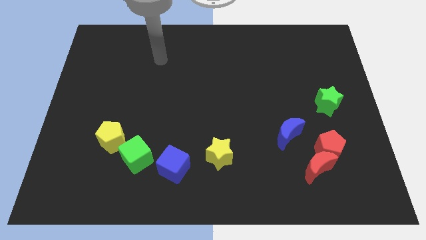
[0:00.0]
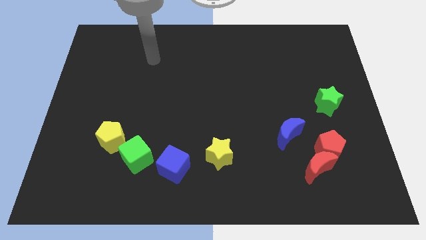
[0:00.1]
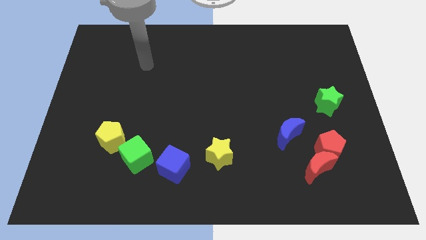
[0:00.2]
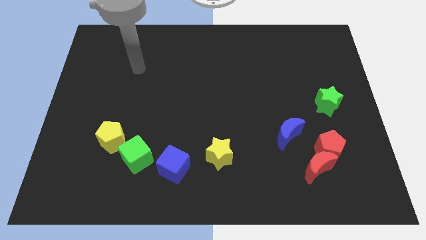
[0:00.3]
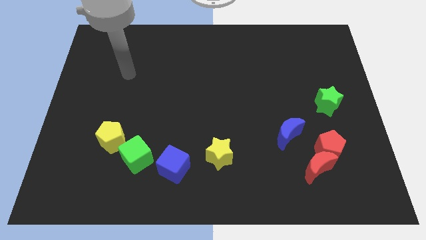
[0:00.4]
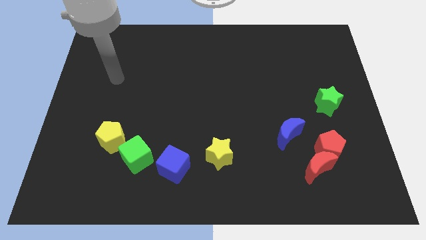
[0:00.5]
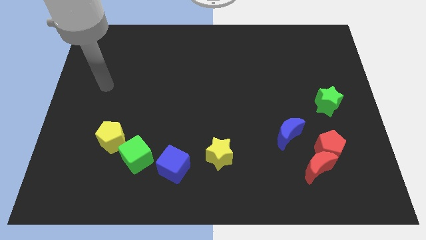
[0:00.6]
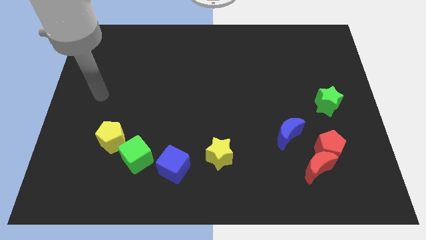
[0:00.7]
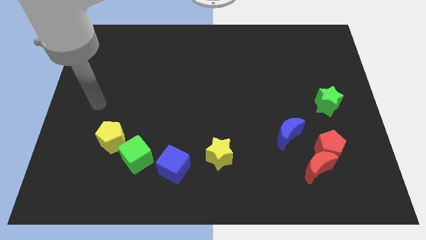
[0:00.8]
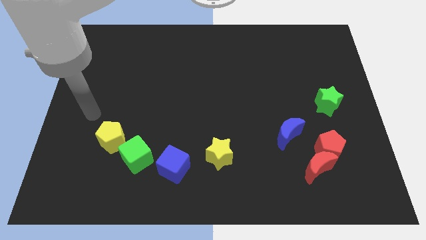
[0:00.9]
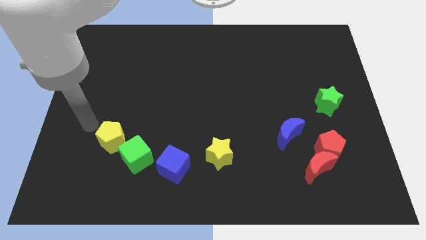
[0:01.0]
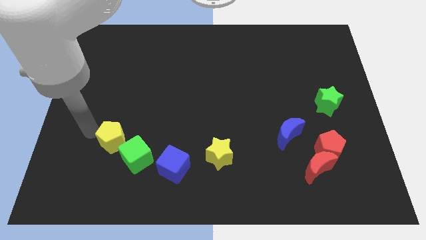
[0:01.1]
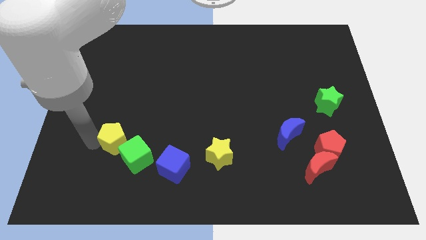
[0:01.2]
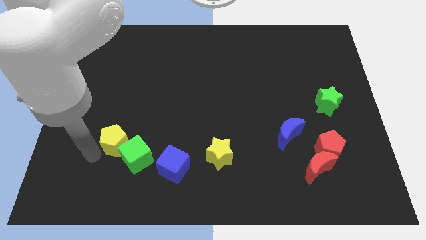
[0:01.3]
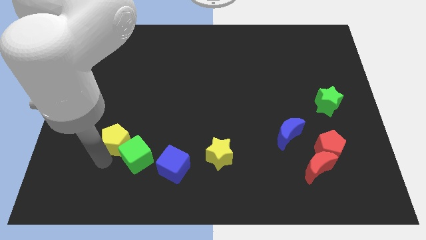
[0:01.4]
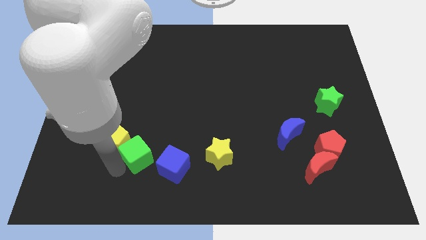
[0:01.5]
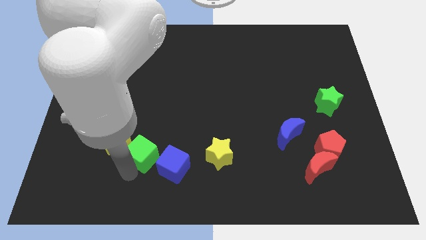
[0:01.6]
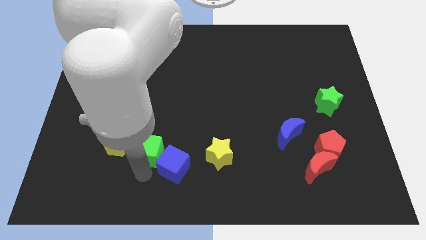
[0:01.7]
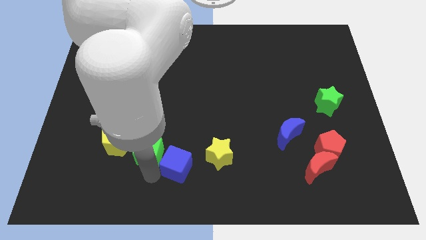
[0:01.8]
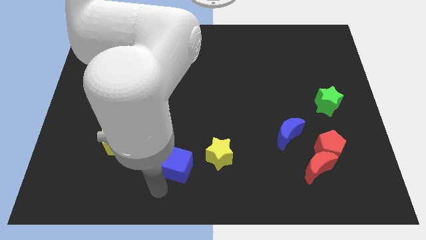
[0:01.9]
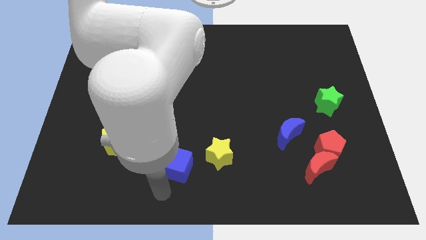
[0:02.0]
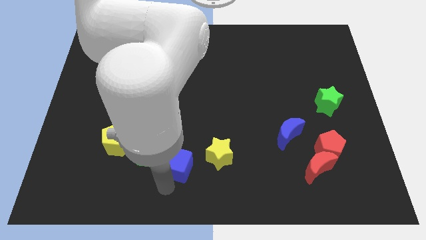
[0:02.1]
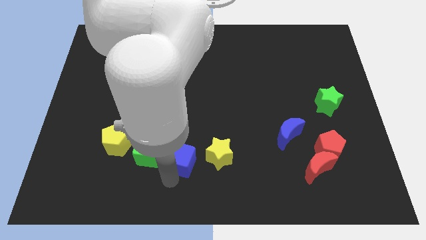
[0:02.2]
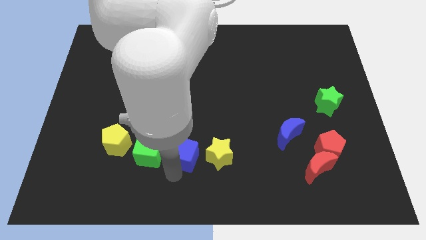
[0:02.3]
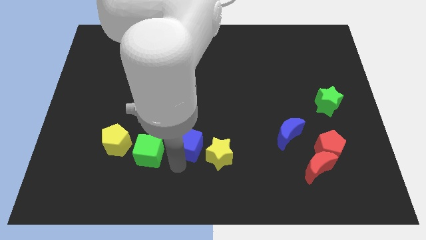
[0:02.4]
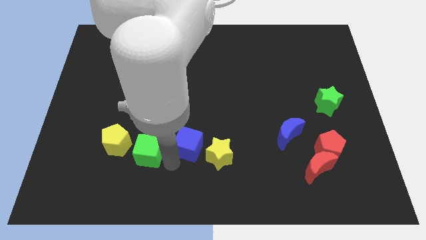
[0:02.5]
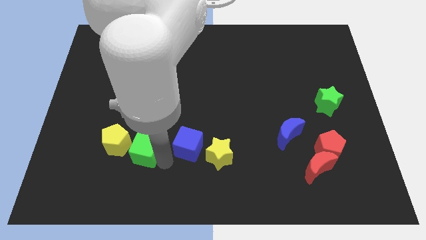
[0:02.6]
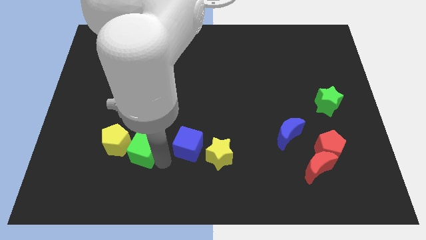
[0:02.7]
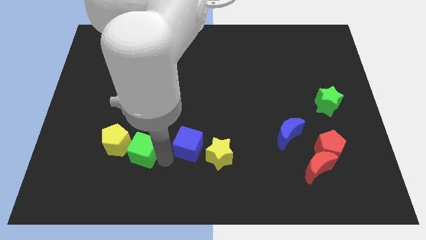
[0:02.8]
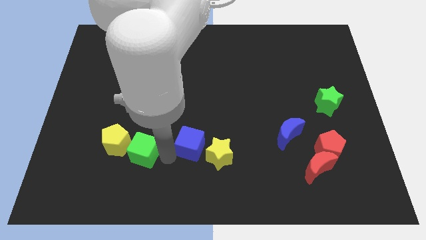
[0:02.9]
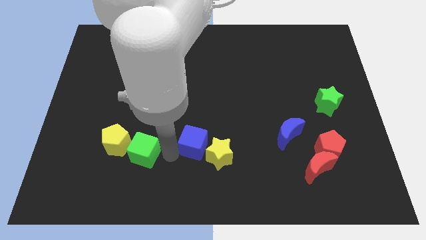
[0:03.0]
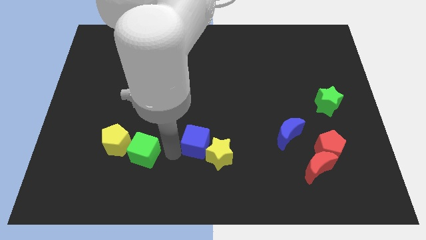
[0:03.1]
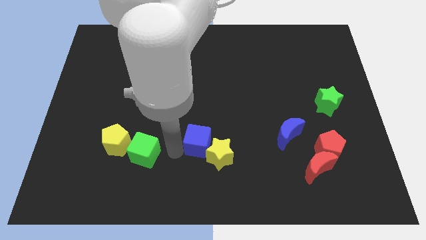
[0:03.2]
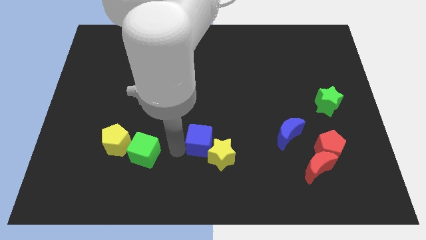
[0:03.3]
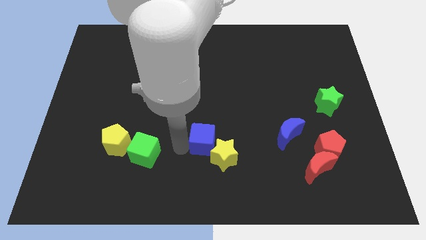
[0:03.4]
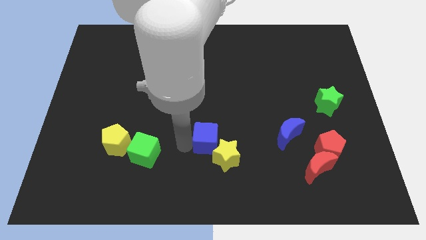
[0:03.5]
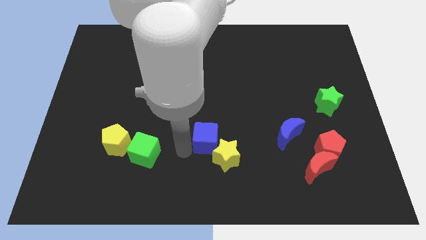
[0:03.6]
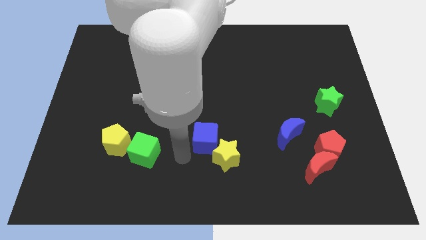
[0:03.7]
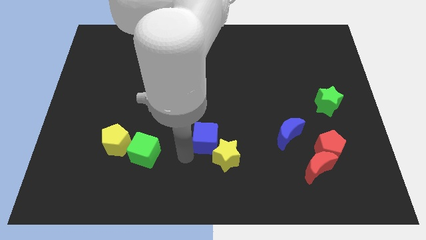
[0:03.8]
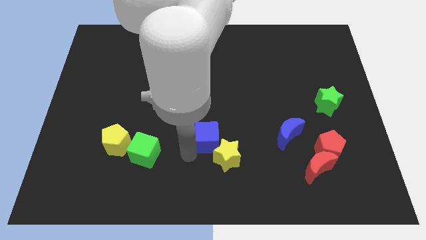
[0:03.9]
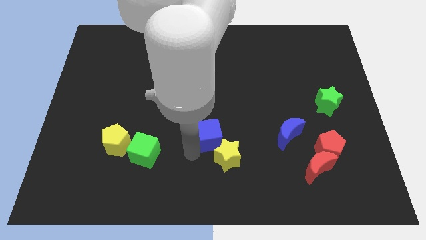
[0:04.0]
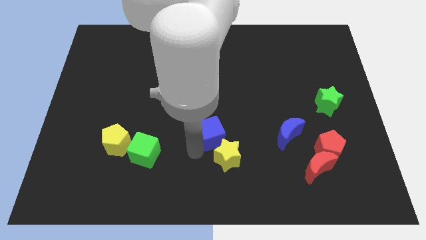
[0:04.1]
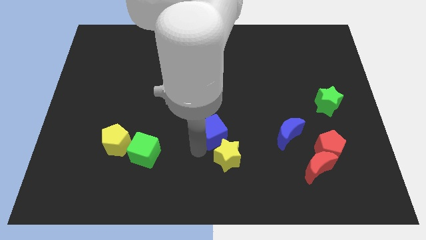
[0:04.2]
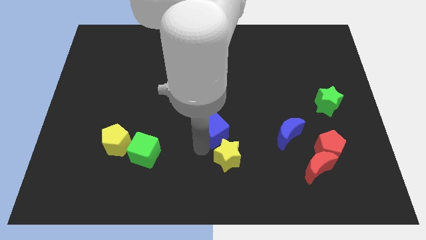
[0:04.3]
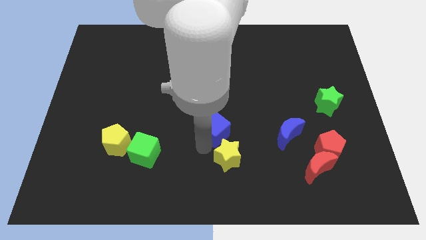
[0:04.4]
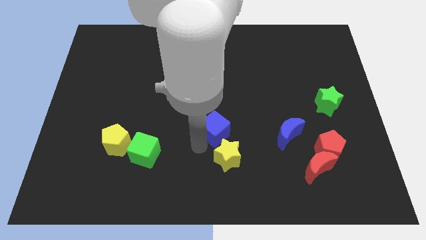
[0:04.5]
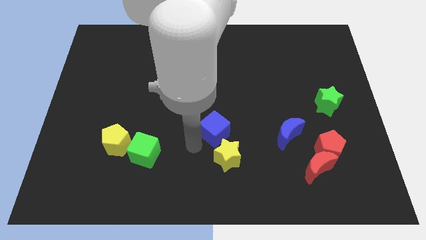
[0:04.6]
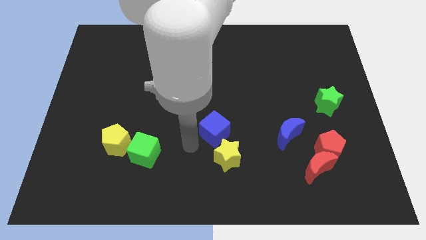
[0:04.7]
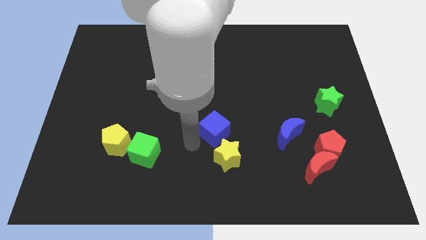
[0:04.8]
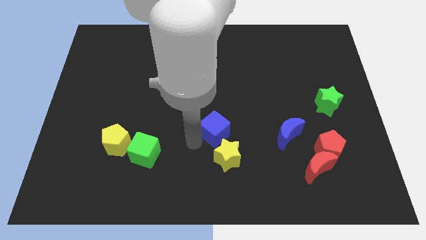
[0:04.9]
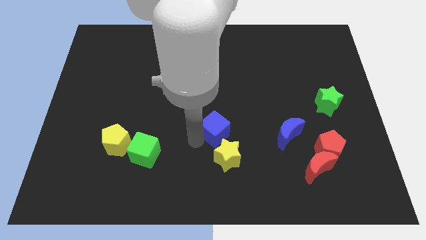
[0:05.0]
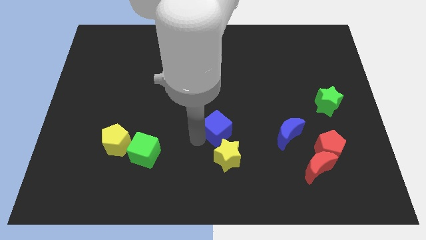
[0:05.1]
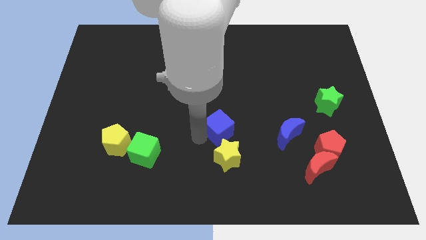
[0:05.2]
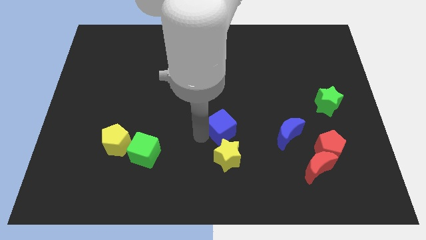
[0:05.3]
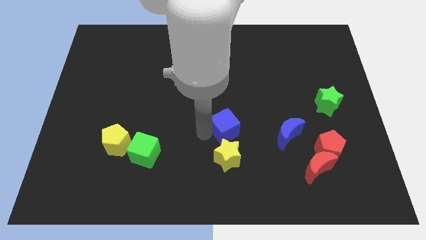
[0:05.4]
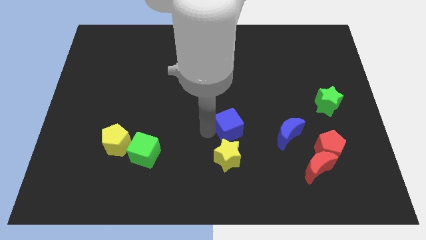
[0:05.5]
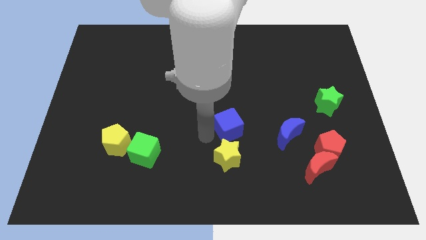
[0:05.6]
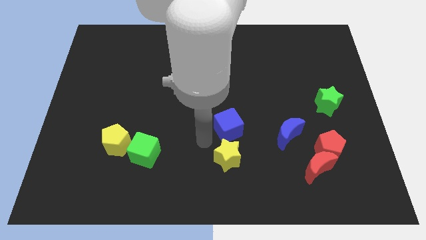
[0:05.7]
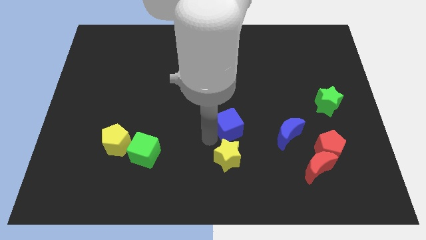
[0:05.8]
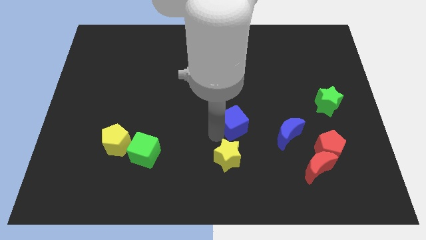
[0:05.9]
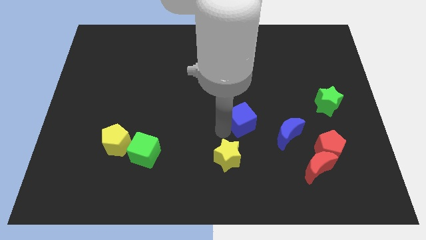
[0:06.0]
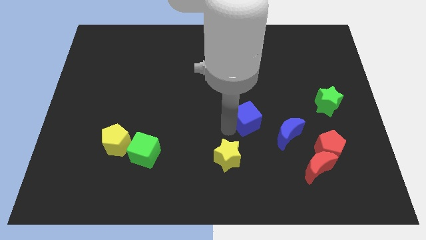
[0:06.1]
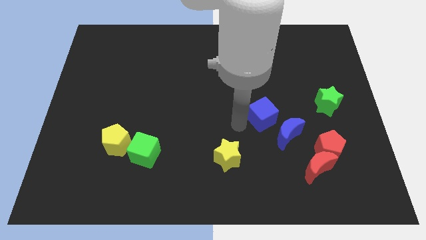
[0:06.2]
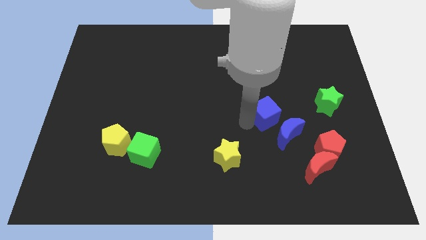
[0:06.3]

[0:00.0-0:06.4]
push the blue cube to the top of the blue moon
